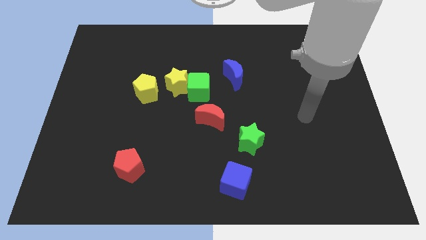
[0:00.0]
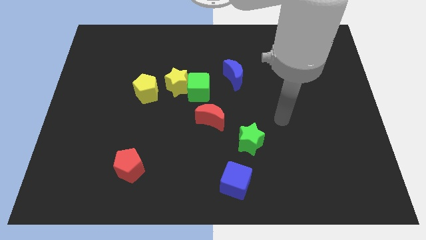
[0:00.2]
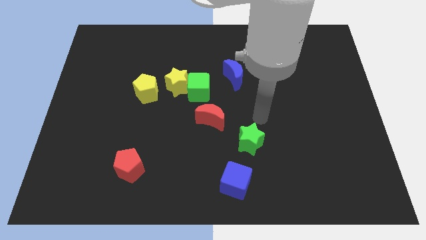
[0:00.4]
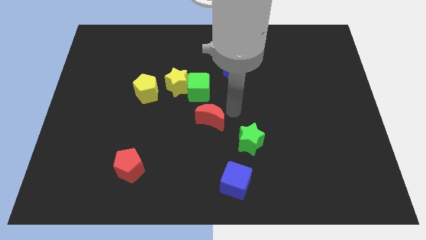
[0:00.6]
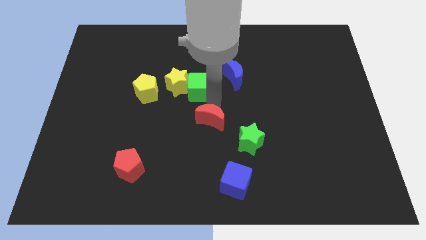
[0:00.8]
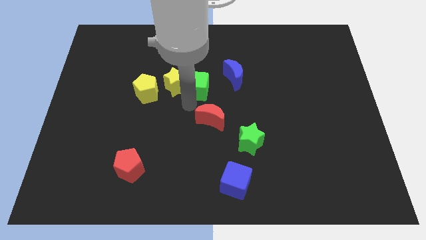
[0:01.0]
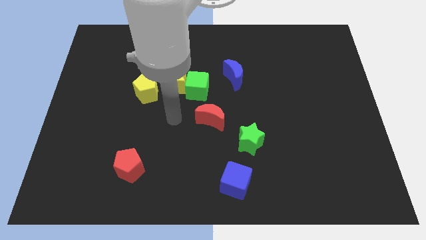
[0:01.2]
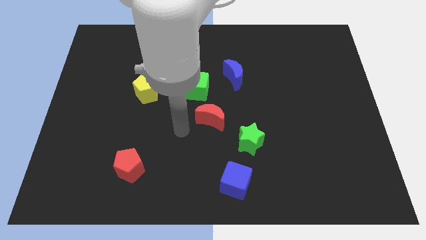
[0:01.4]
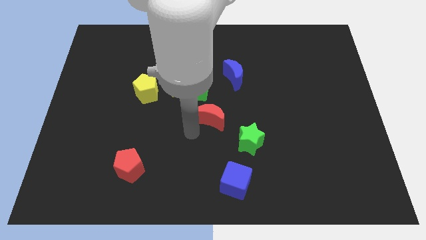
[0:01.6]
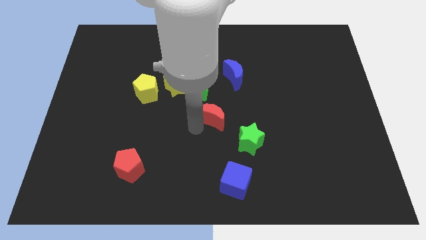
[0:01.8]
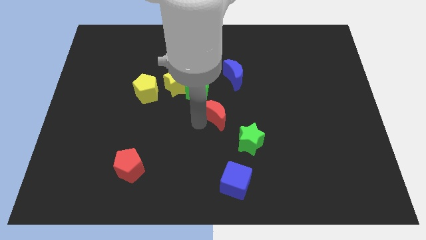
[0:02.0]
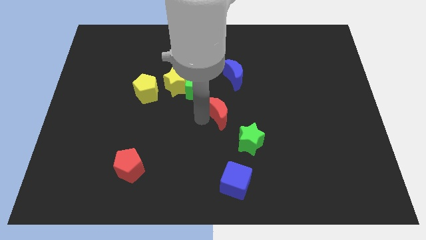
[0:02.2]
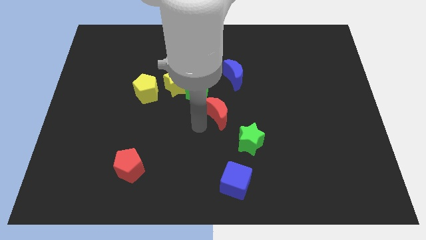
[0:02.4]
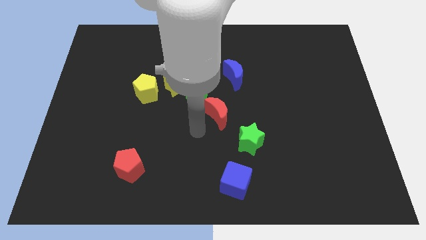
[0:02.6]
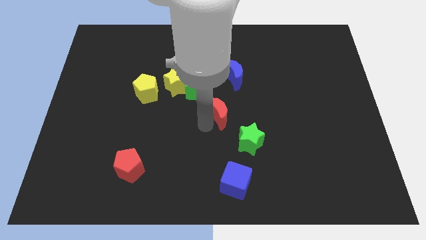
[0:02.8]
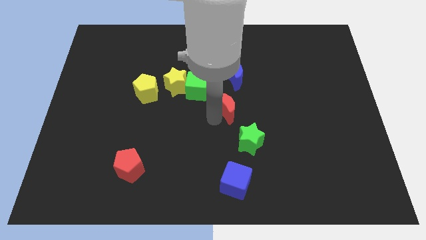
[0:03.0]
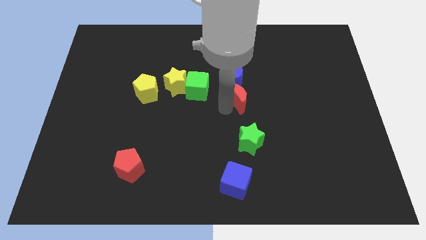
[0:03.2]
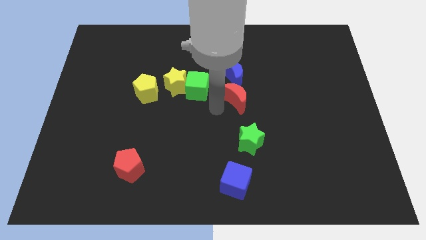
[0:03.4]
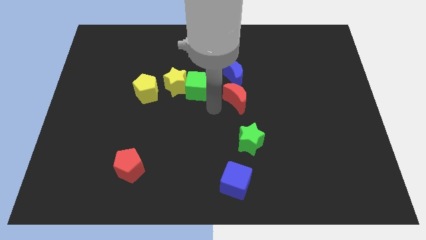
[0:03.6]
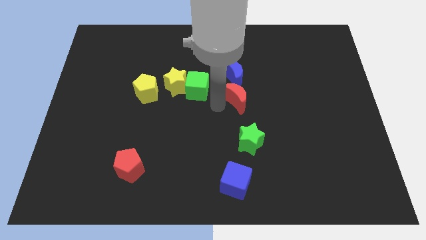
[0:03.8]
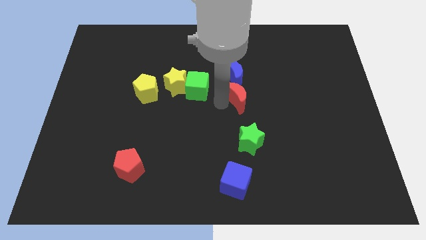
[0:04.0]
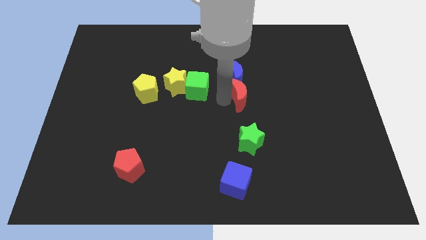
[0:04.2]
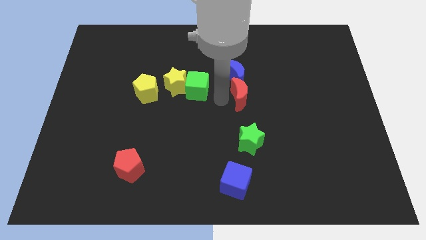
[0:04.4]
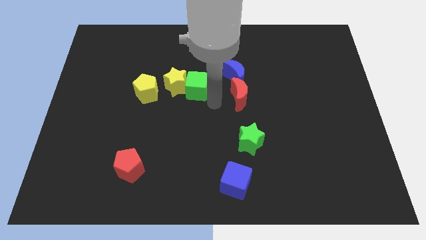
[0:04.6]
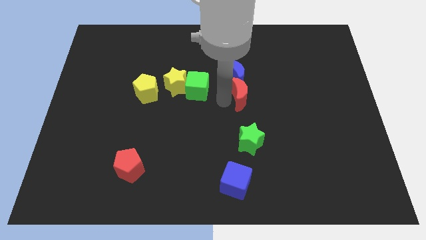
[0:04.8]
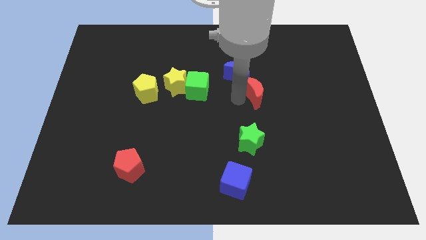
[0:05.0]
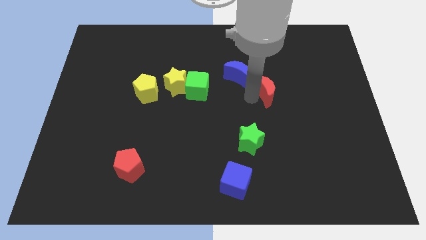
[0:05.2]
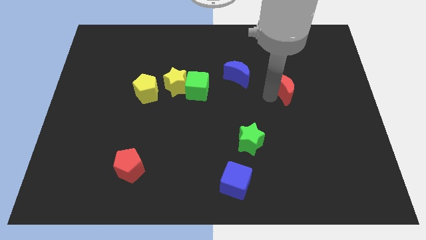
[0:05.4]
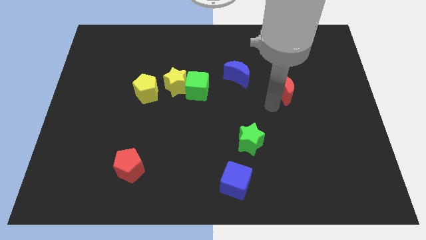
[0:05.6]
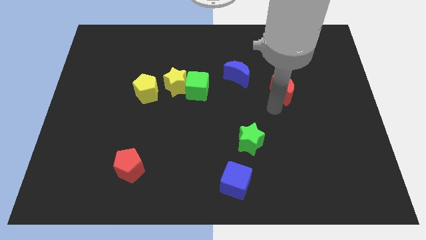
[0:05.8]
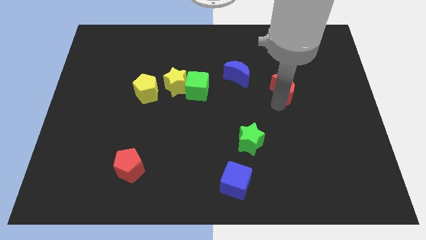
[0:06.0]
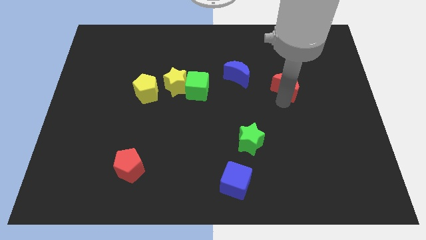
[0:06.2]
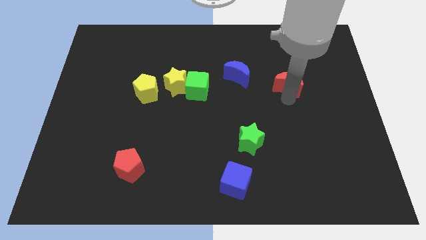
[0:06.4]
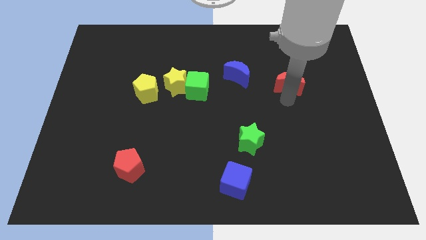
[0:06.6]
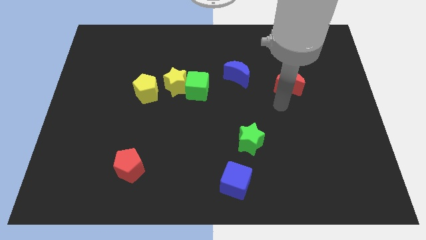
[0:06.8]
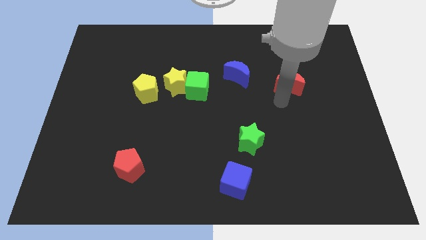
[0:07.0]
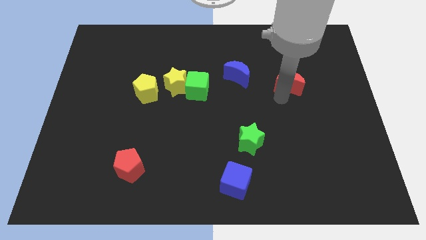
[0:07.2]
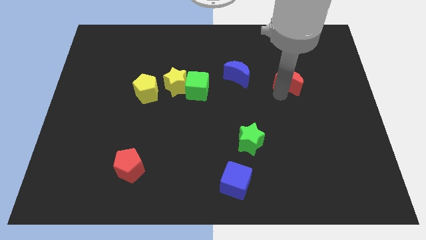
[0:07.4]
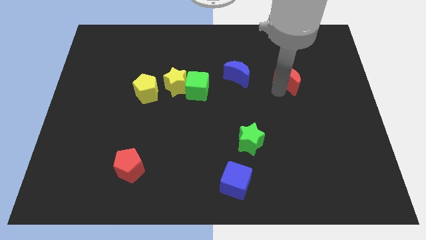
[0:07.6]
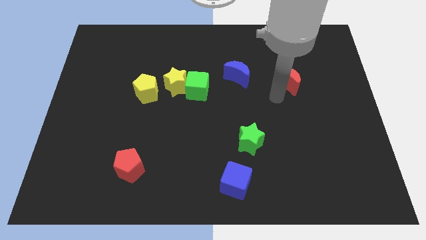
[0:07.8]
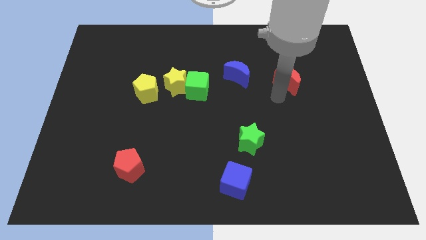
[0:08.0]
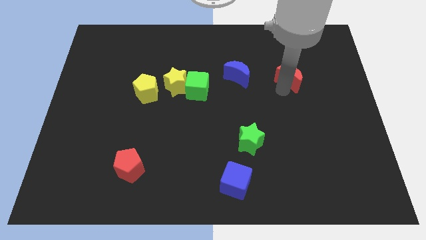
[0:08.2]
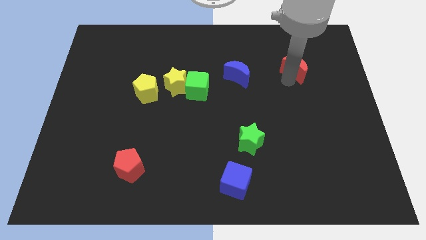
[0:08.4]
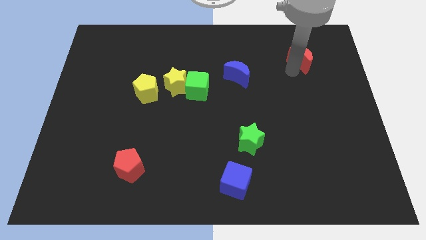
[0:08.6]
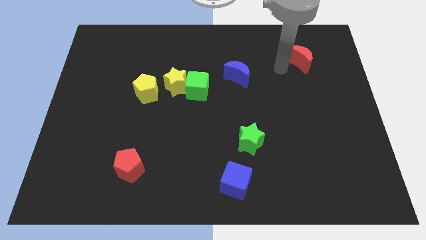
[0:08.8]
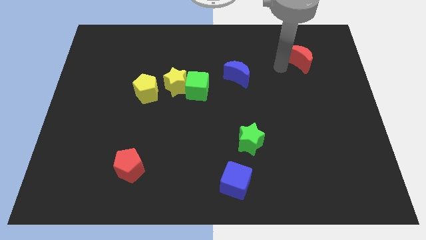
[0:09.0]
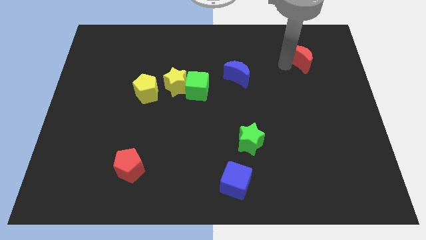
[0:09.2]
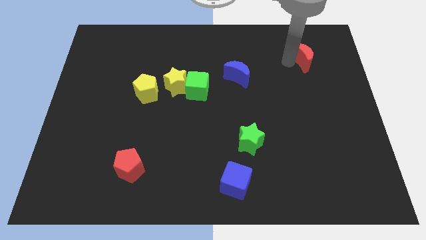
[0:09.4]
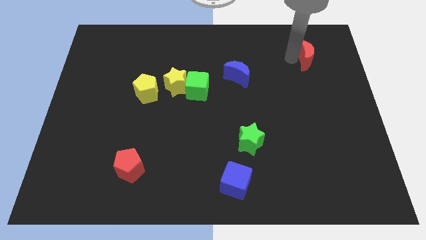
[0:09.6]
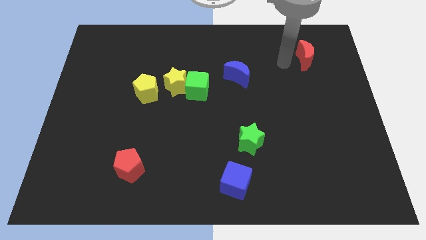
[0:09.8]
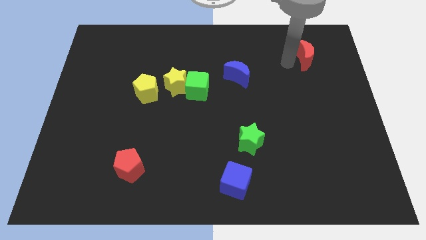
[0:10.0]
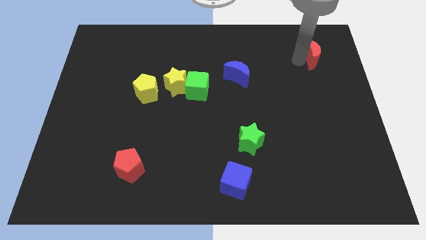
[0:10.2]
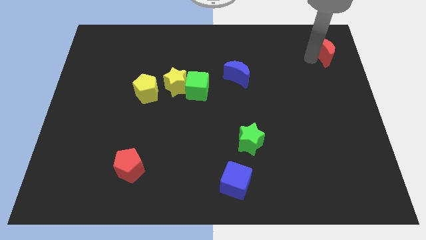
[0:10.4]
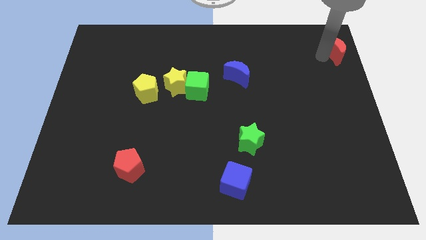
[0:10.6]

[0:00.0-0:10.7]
push the red moon to the top right of the board
